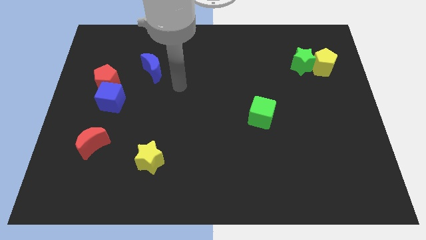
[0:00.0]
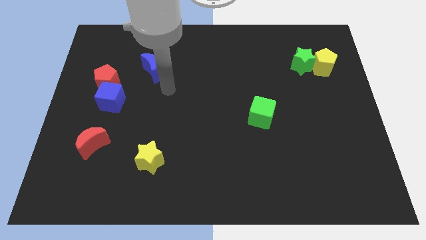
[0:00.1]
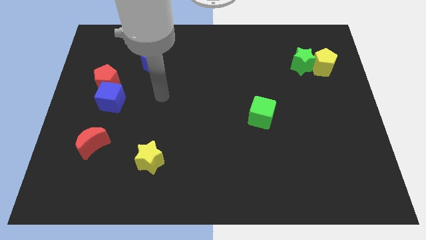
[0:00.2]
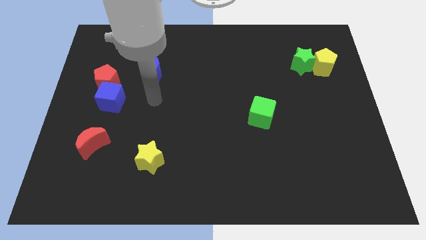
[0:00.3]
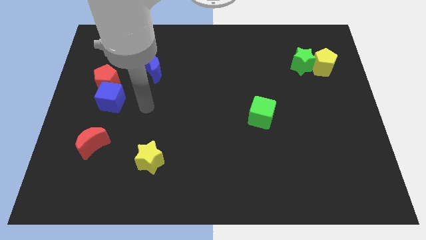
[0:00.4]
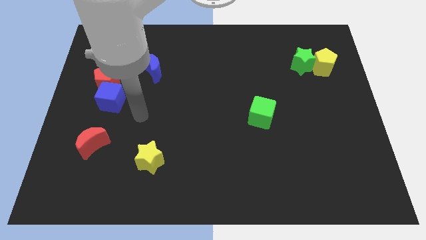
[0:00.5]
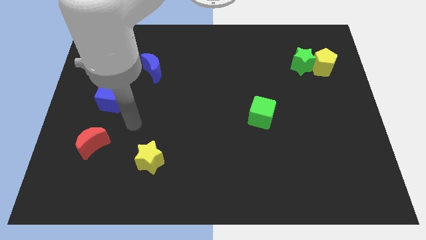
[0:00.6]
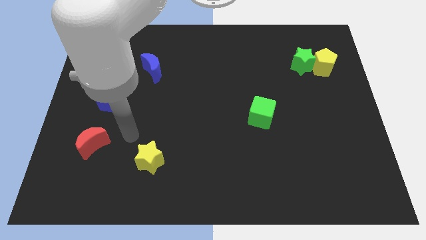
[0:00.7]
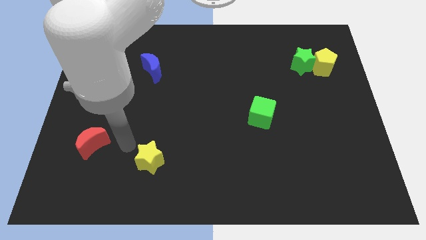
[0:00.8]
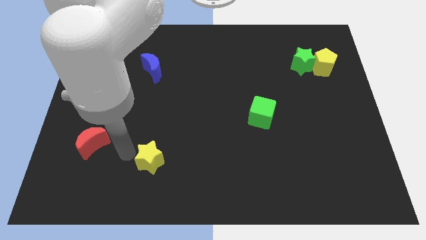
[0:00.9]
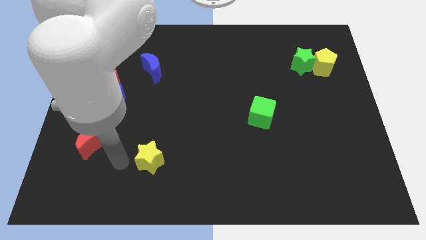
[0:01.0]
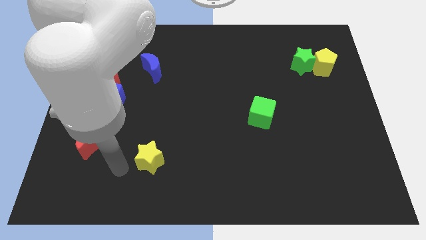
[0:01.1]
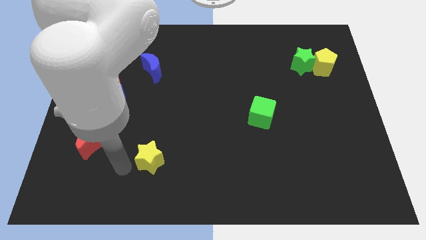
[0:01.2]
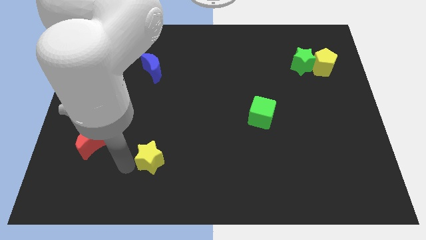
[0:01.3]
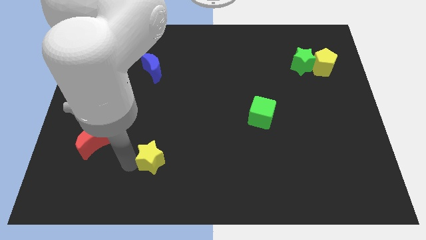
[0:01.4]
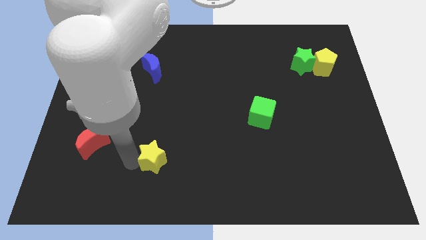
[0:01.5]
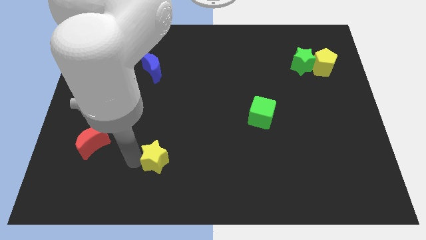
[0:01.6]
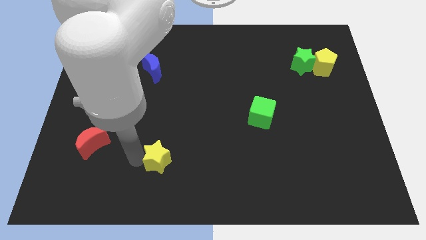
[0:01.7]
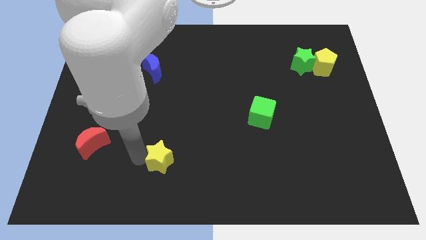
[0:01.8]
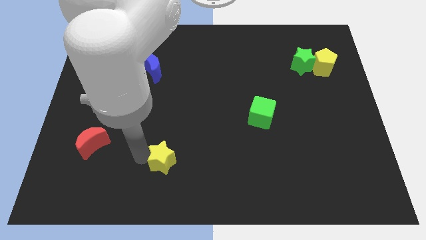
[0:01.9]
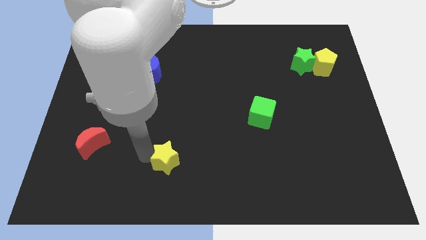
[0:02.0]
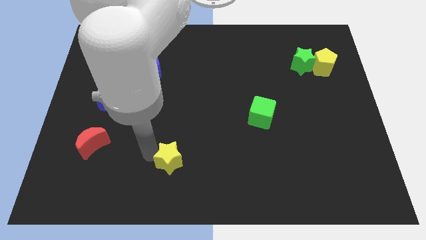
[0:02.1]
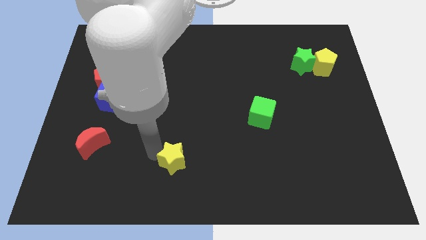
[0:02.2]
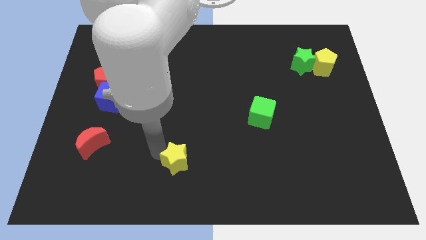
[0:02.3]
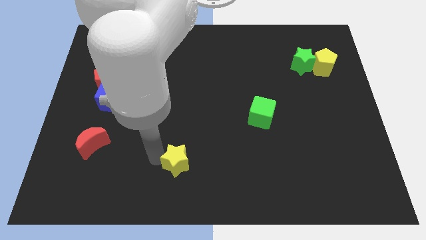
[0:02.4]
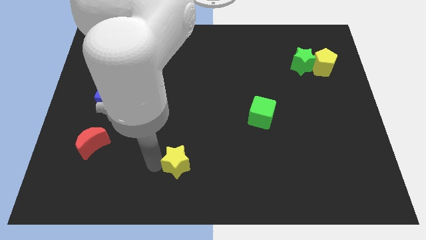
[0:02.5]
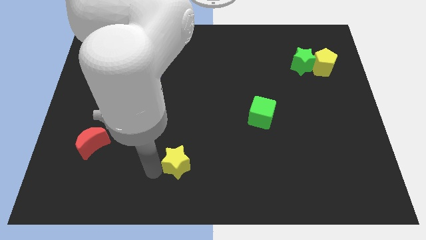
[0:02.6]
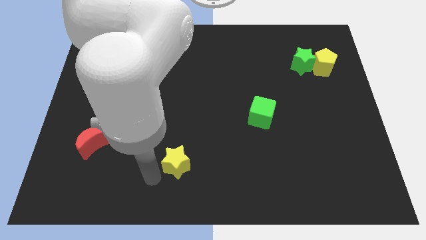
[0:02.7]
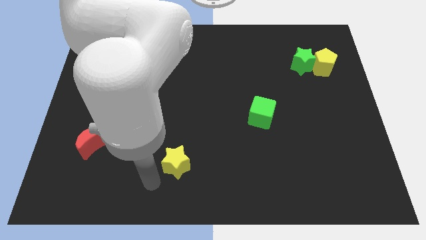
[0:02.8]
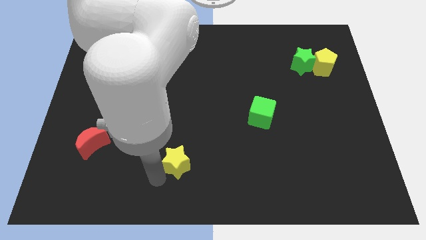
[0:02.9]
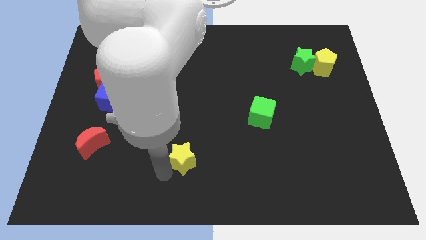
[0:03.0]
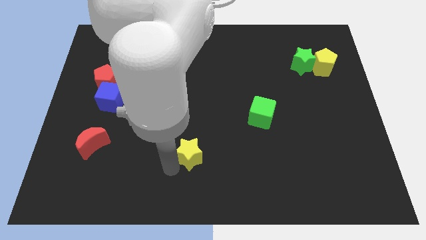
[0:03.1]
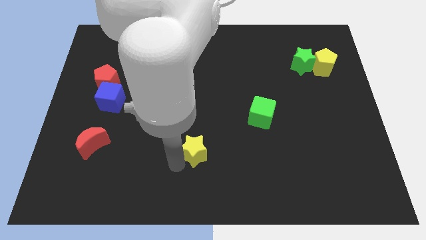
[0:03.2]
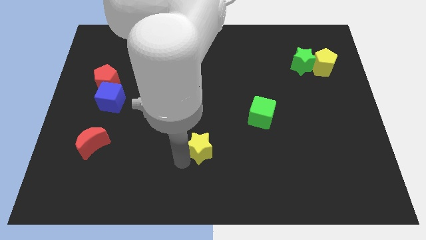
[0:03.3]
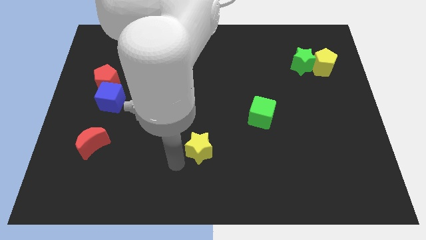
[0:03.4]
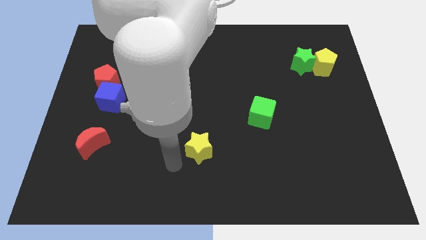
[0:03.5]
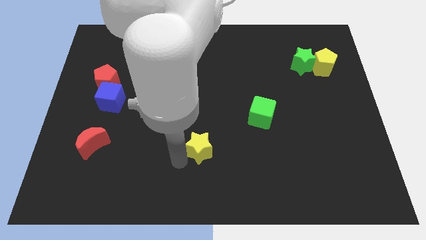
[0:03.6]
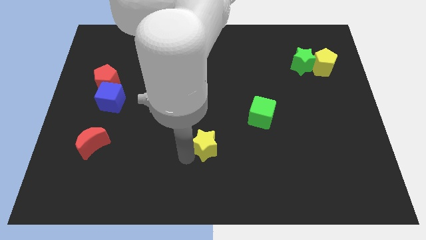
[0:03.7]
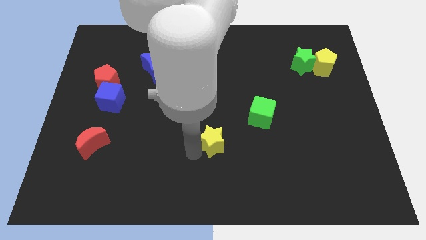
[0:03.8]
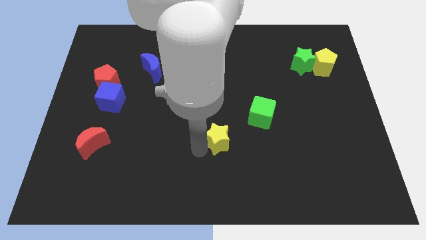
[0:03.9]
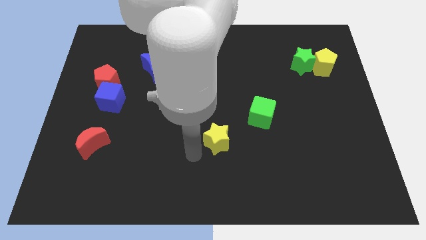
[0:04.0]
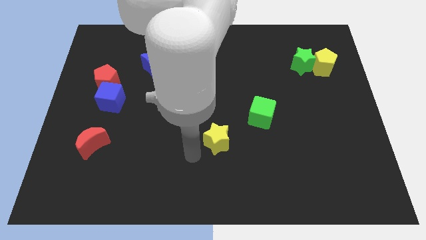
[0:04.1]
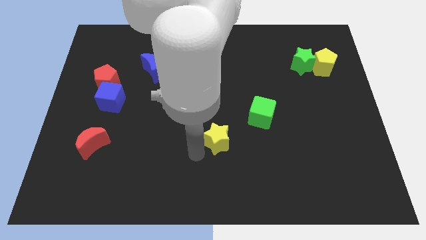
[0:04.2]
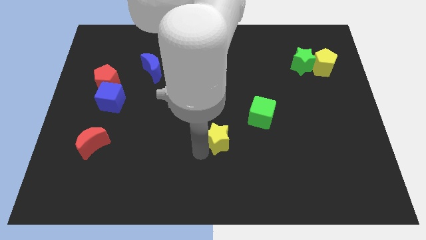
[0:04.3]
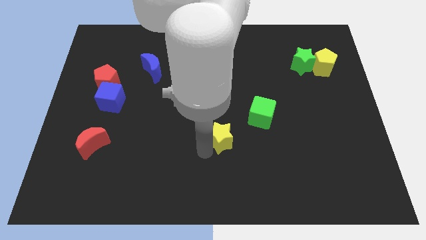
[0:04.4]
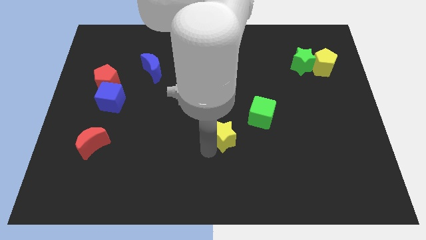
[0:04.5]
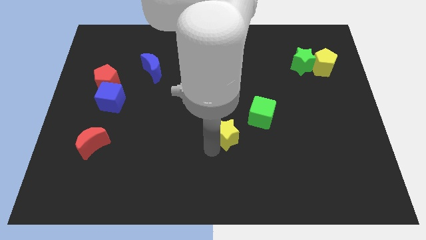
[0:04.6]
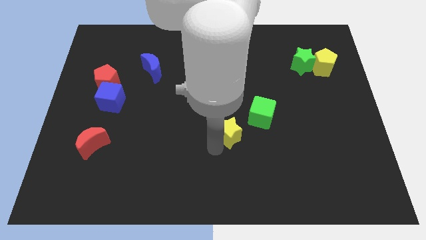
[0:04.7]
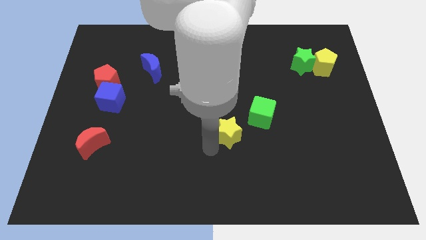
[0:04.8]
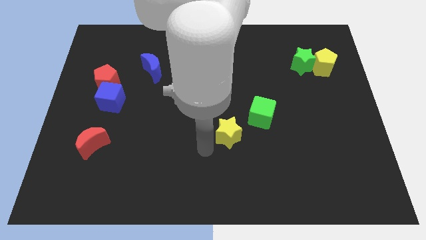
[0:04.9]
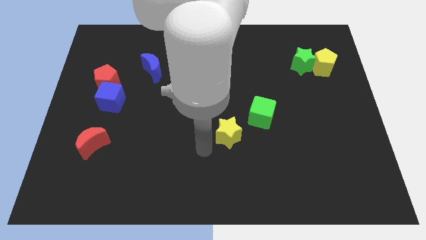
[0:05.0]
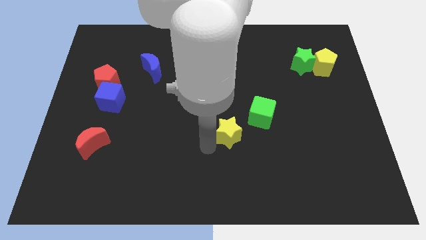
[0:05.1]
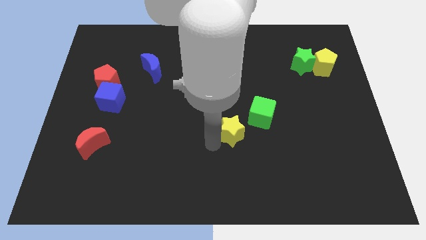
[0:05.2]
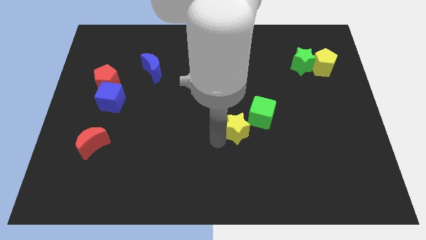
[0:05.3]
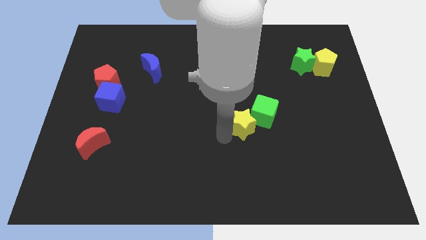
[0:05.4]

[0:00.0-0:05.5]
move the yellow star next to the green cube
